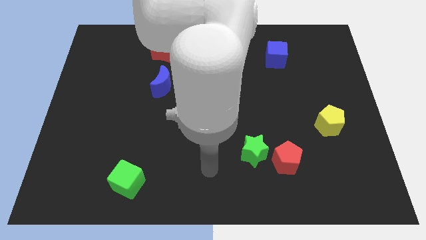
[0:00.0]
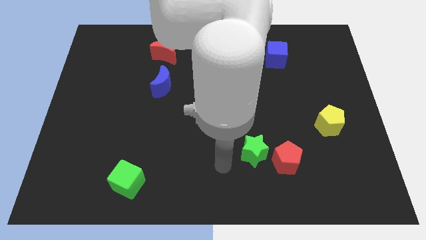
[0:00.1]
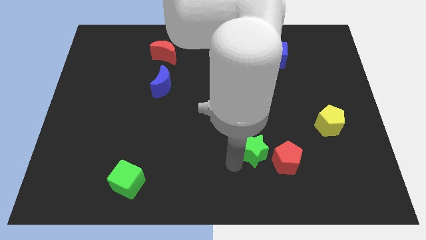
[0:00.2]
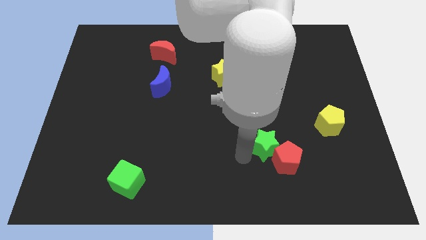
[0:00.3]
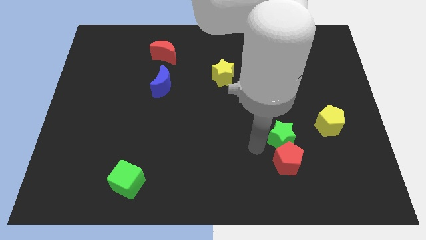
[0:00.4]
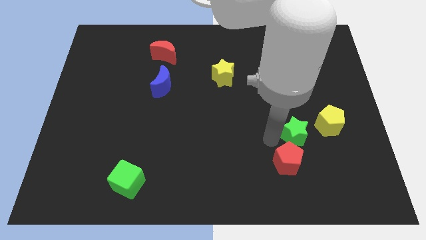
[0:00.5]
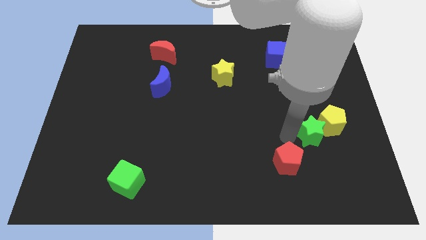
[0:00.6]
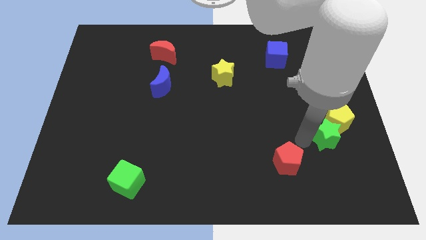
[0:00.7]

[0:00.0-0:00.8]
move the red pentagon away from the green star

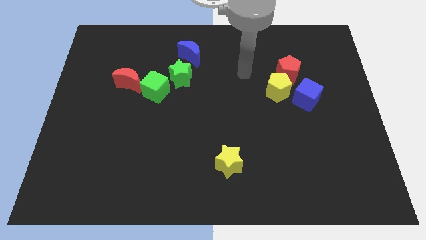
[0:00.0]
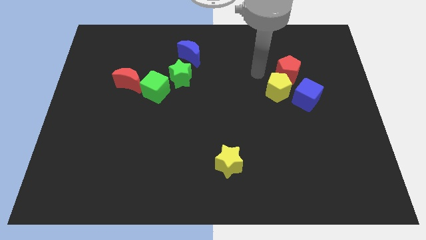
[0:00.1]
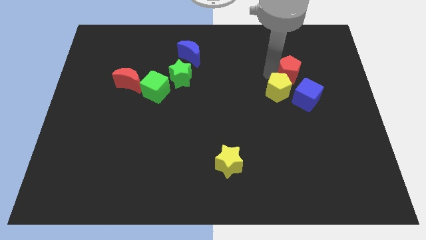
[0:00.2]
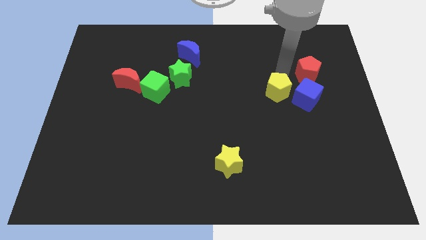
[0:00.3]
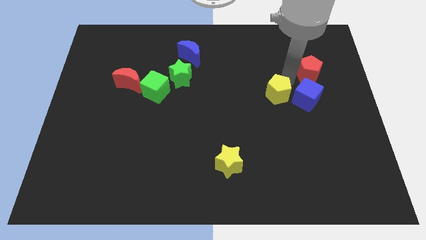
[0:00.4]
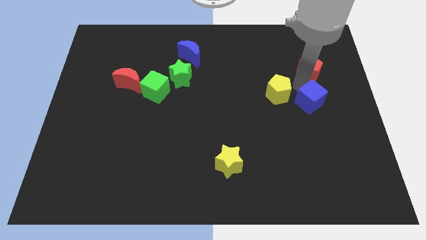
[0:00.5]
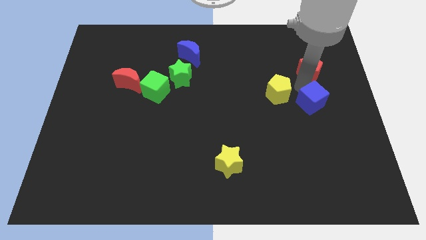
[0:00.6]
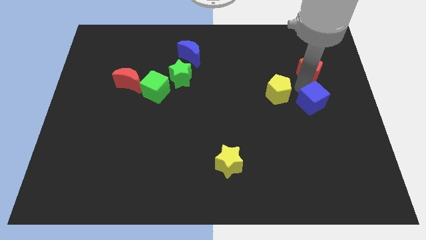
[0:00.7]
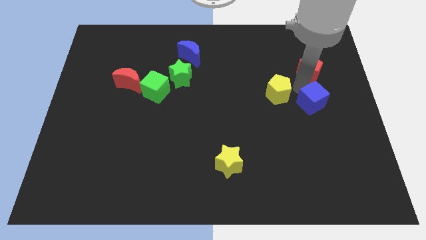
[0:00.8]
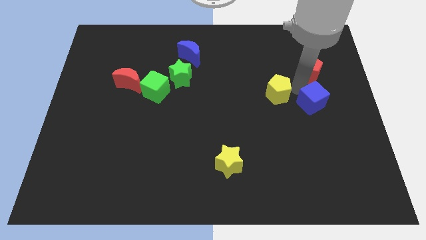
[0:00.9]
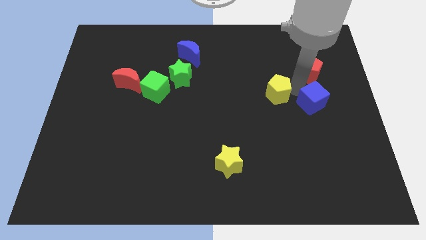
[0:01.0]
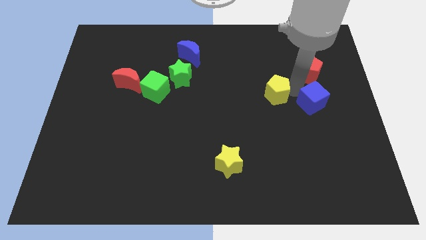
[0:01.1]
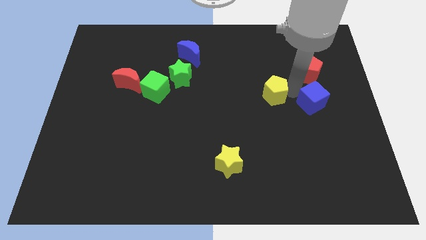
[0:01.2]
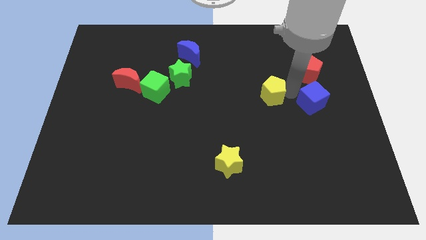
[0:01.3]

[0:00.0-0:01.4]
pull the yellow pentagon apart from the red pentagon and blue cube

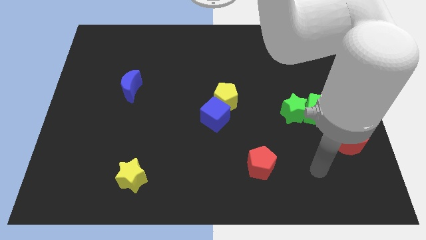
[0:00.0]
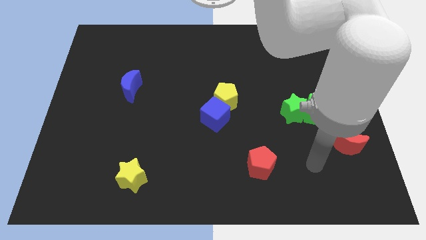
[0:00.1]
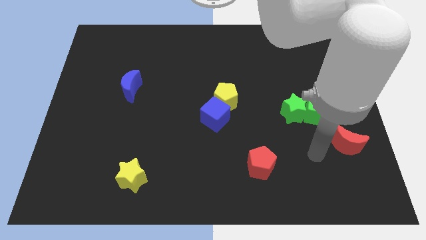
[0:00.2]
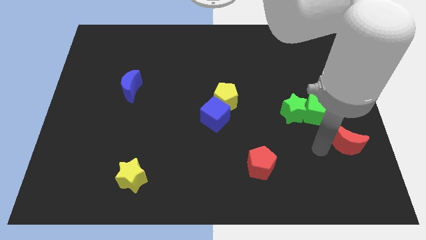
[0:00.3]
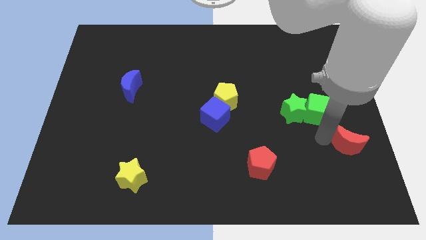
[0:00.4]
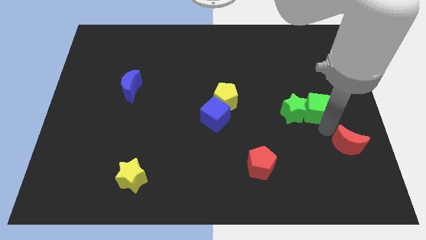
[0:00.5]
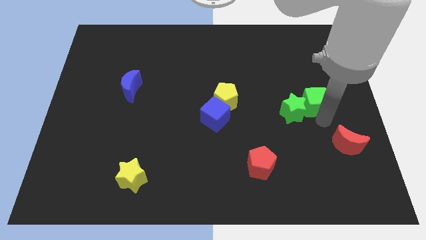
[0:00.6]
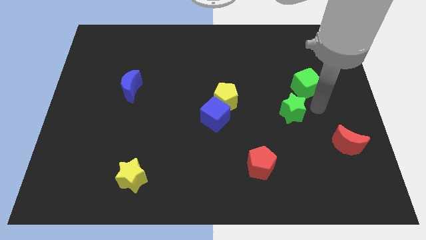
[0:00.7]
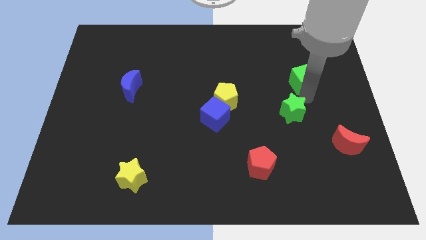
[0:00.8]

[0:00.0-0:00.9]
pull the green star apart from the green cube

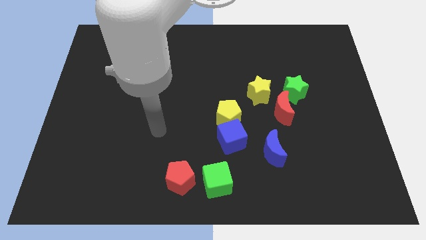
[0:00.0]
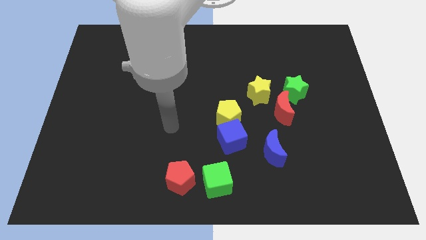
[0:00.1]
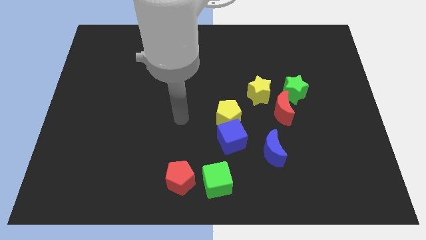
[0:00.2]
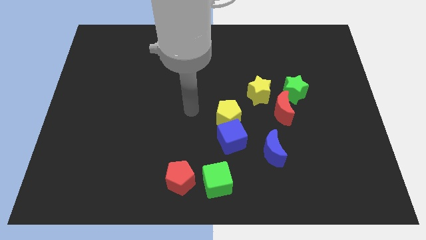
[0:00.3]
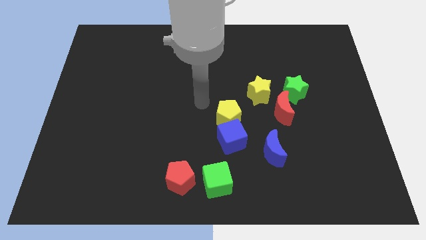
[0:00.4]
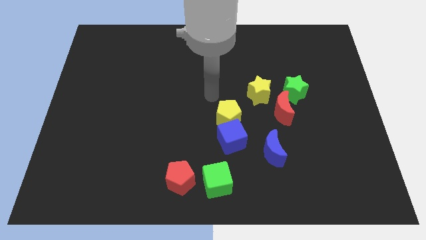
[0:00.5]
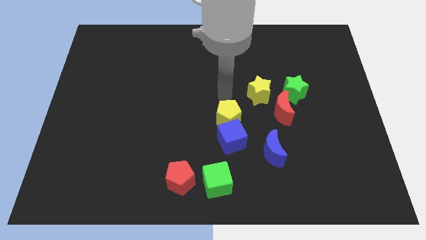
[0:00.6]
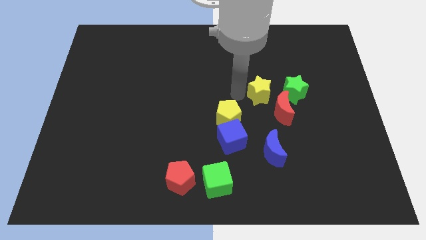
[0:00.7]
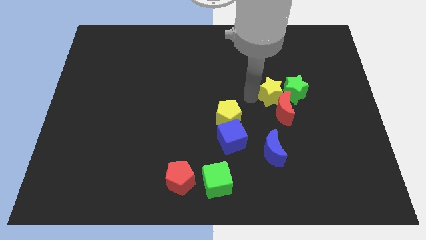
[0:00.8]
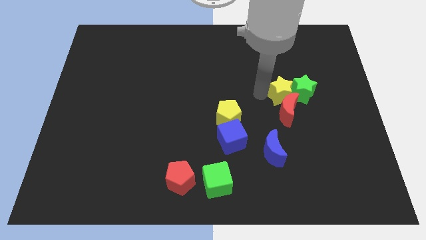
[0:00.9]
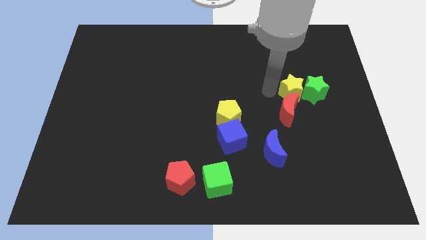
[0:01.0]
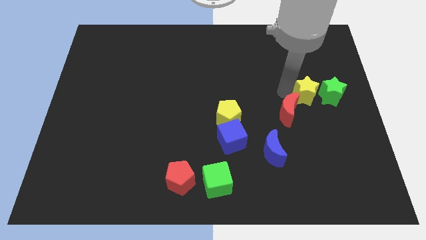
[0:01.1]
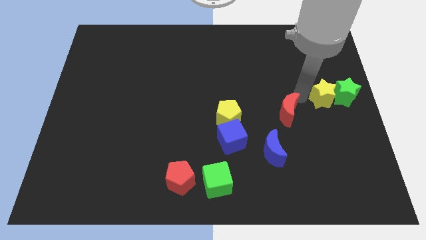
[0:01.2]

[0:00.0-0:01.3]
move the red moon away from the green star and yellow star

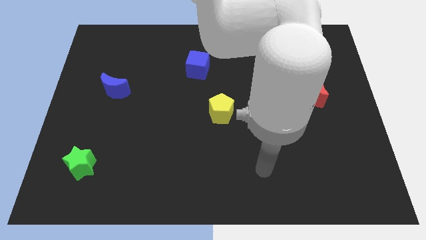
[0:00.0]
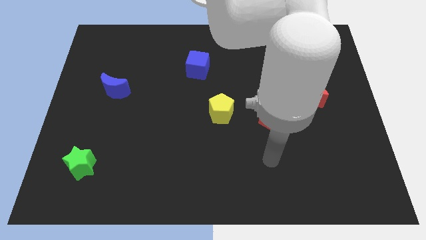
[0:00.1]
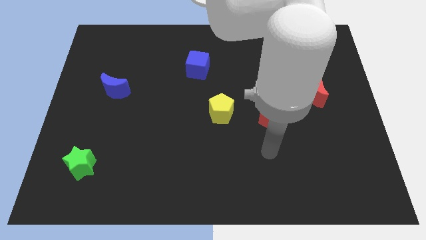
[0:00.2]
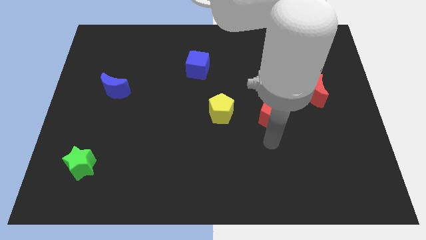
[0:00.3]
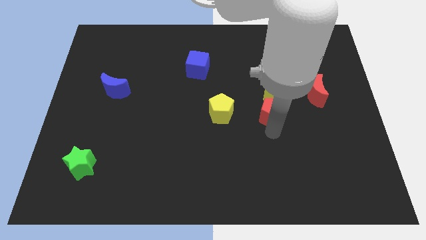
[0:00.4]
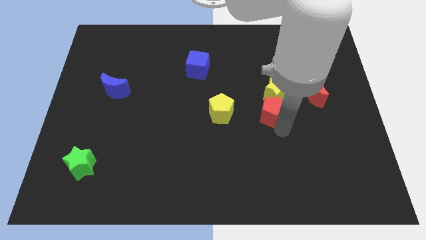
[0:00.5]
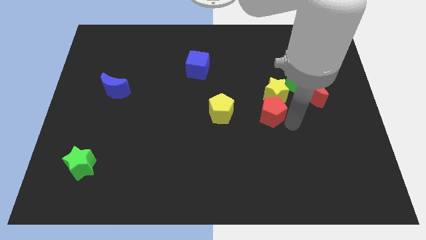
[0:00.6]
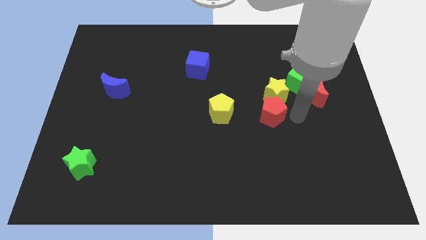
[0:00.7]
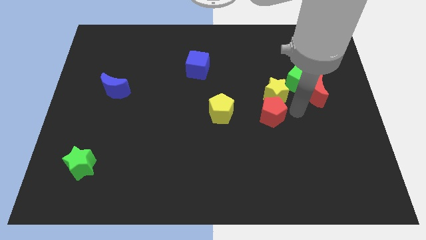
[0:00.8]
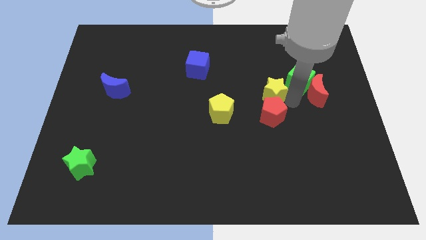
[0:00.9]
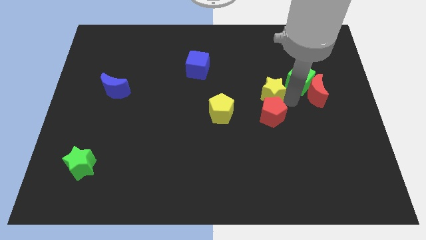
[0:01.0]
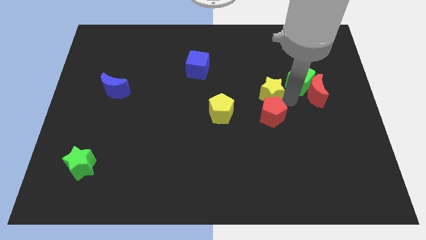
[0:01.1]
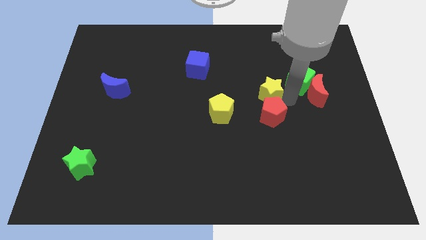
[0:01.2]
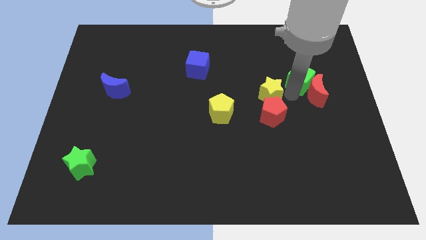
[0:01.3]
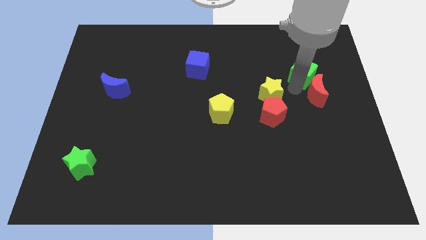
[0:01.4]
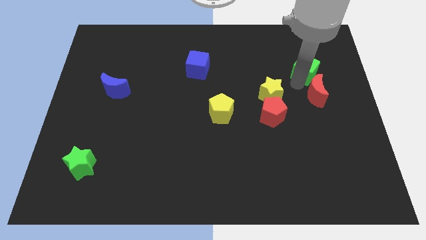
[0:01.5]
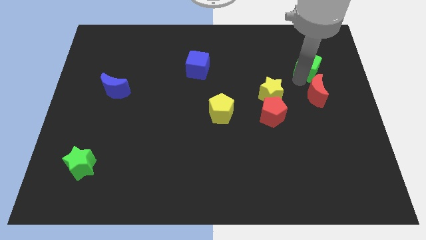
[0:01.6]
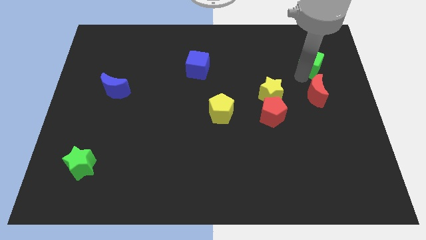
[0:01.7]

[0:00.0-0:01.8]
pull the green cube apart from the red moon and yellow star

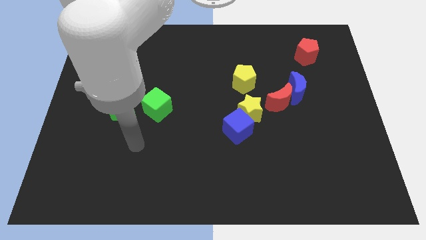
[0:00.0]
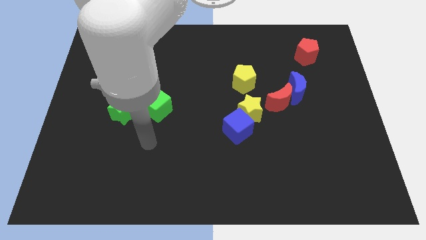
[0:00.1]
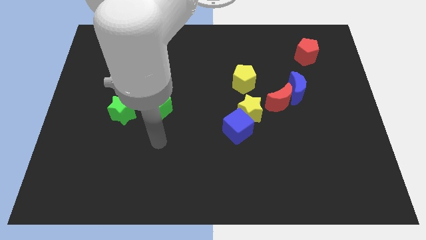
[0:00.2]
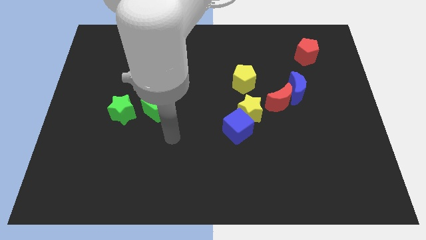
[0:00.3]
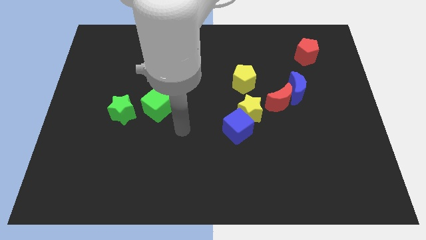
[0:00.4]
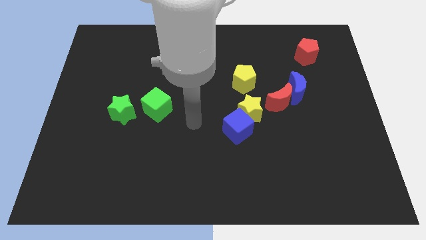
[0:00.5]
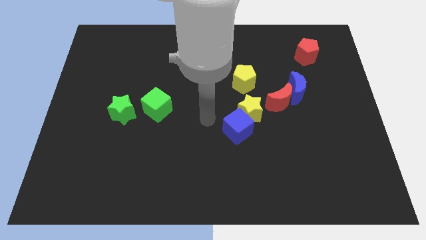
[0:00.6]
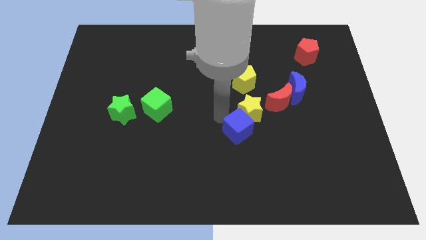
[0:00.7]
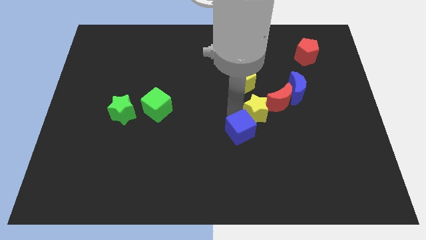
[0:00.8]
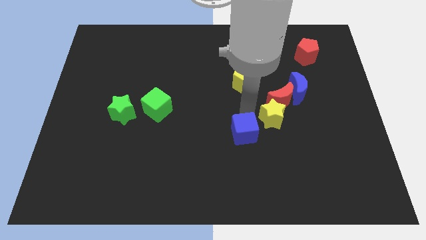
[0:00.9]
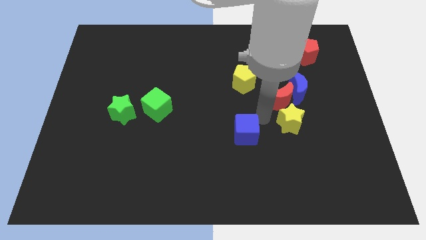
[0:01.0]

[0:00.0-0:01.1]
move the blue cube away from the yellow star

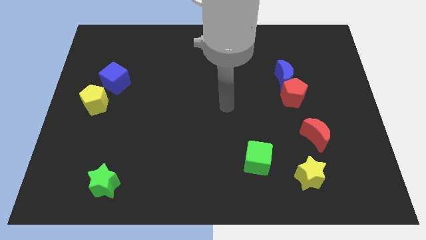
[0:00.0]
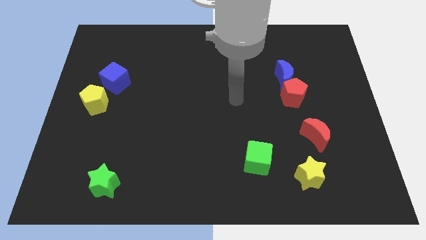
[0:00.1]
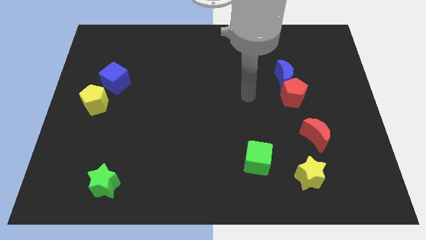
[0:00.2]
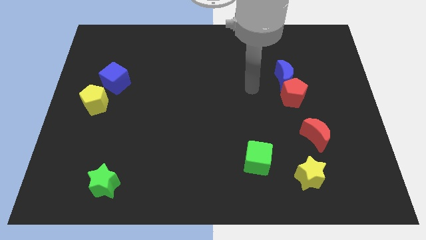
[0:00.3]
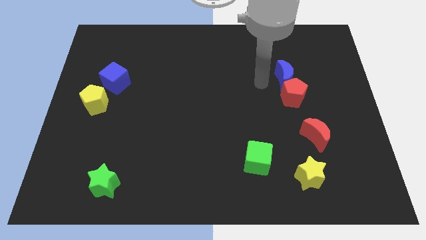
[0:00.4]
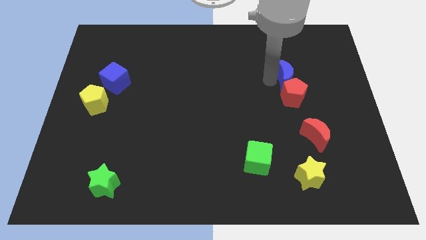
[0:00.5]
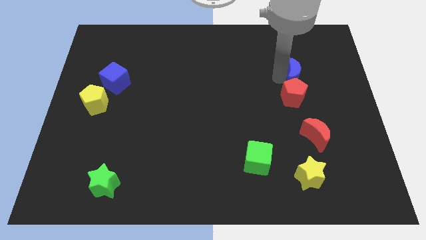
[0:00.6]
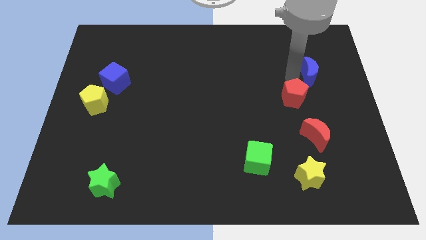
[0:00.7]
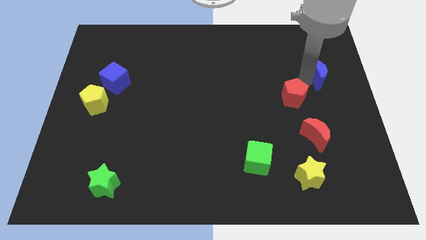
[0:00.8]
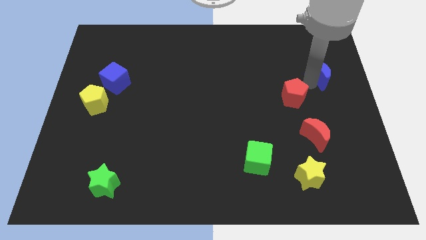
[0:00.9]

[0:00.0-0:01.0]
separate the red pentagon from the blue moon

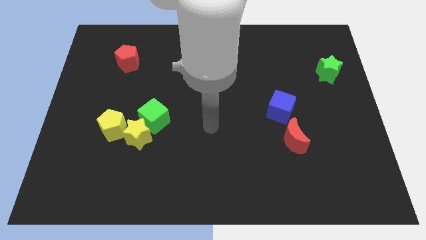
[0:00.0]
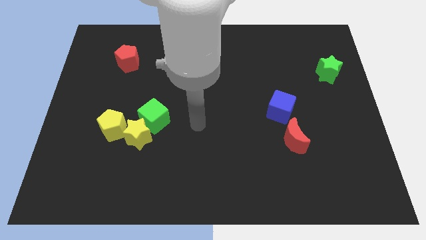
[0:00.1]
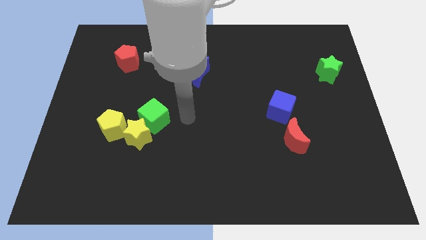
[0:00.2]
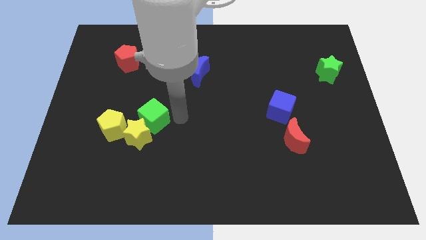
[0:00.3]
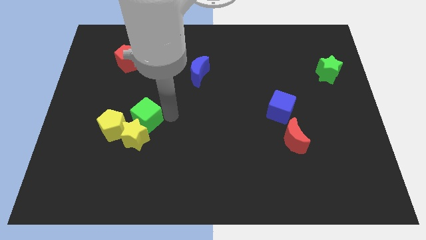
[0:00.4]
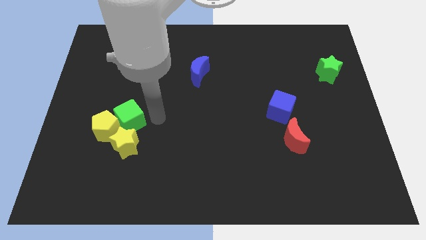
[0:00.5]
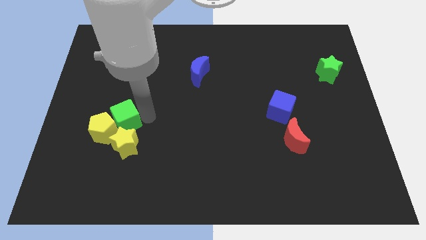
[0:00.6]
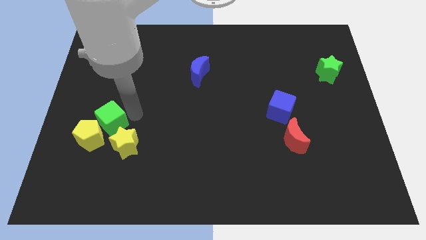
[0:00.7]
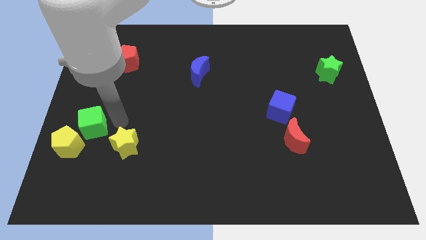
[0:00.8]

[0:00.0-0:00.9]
pull the yellow star apart from the green cube and yellow pentagon
